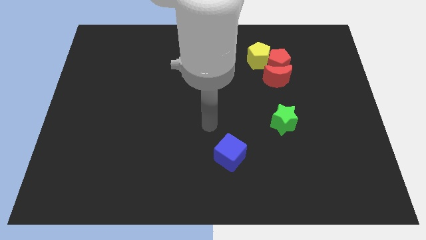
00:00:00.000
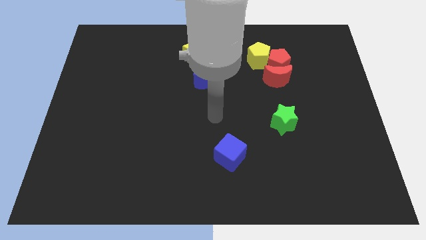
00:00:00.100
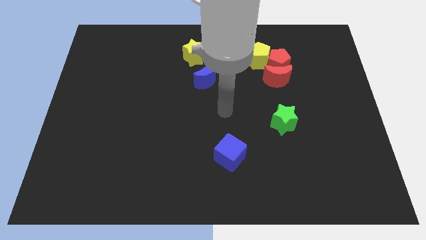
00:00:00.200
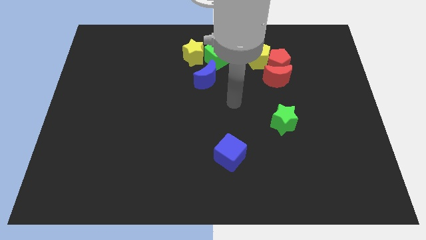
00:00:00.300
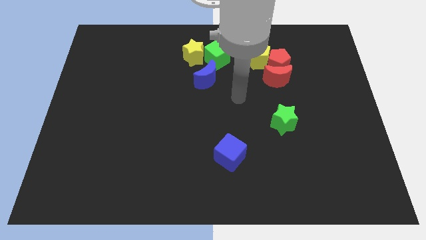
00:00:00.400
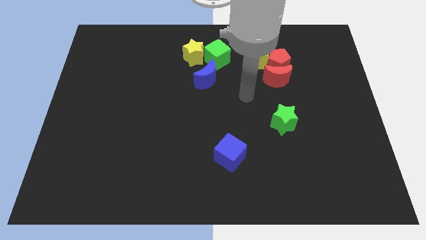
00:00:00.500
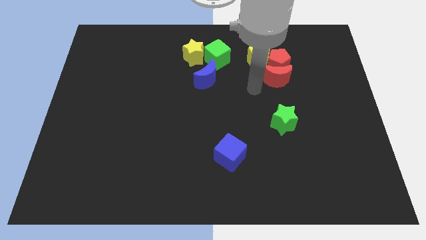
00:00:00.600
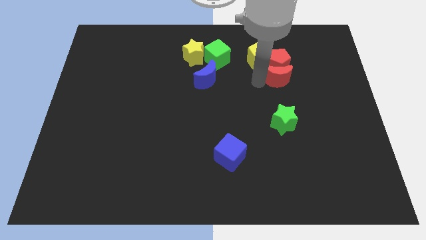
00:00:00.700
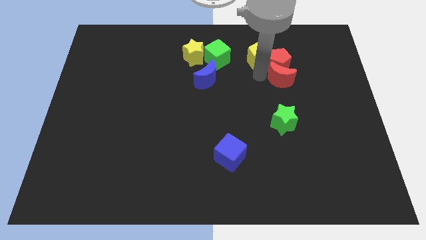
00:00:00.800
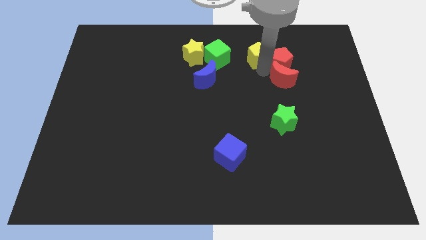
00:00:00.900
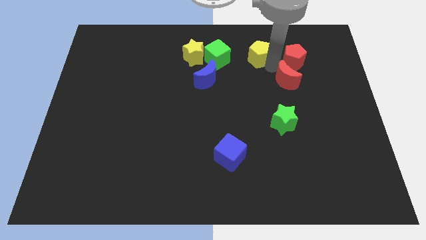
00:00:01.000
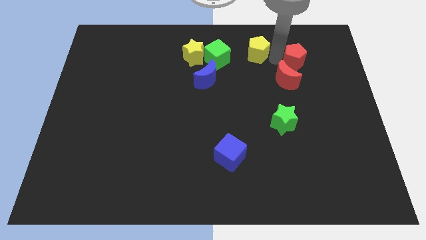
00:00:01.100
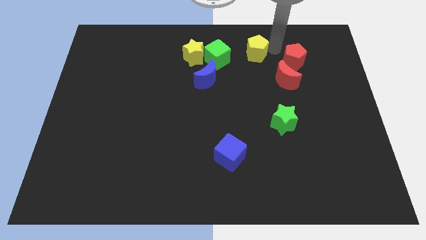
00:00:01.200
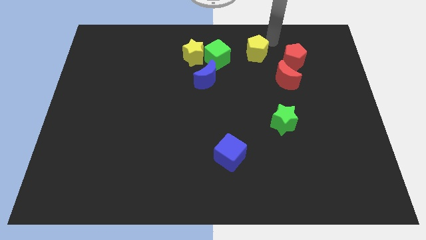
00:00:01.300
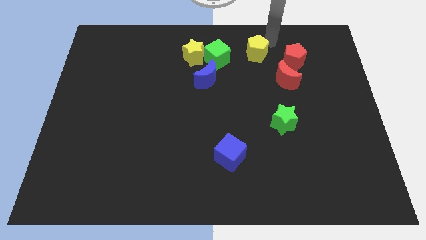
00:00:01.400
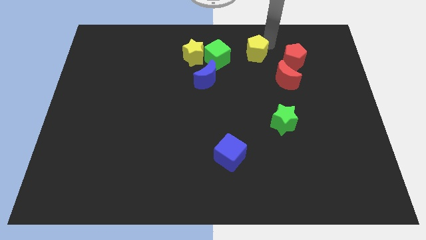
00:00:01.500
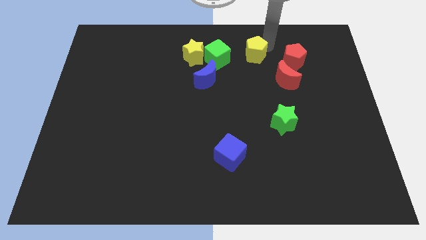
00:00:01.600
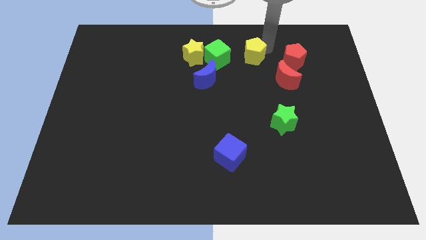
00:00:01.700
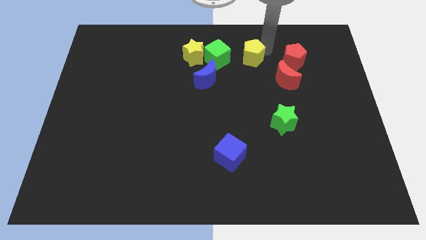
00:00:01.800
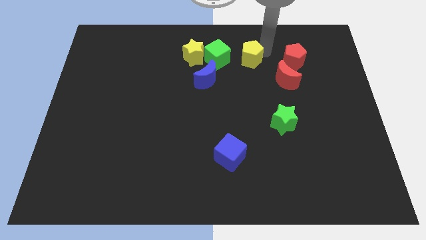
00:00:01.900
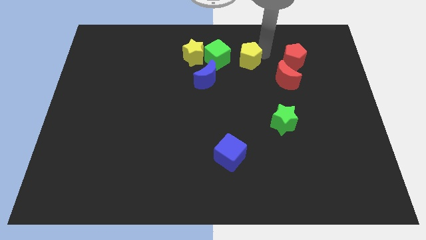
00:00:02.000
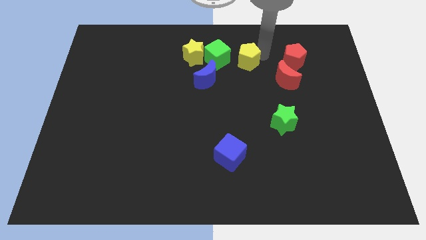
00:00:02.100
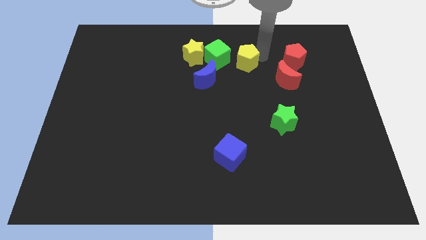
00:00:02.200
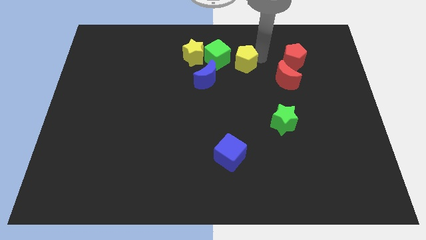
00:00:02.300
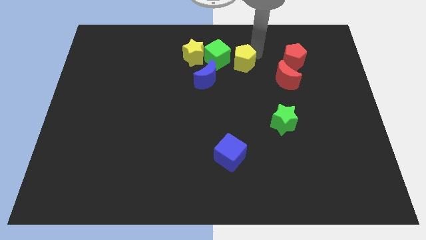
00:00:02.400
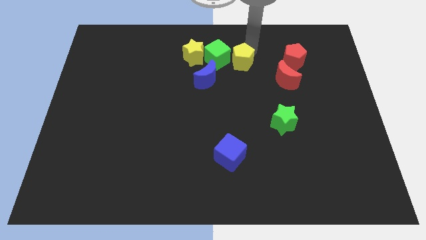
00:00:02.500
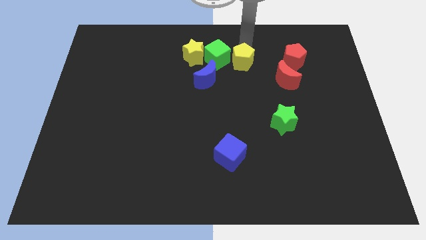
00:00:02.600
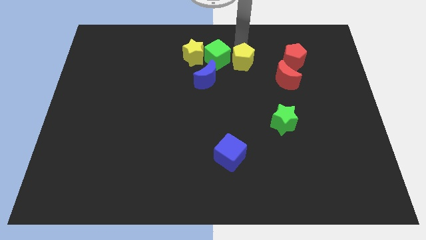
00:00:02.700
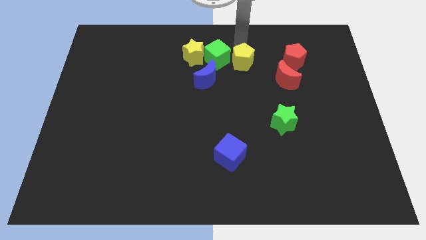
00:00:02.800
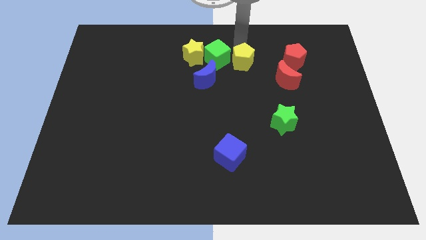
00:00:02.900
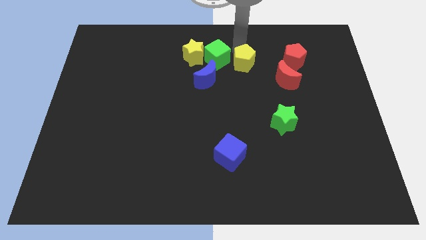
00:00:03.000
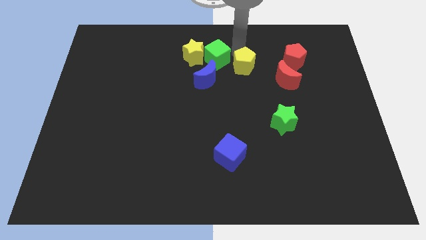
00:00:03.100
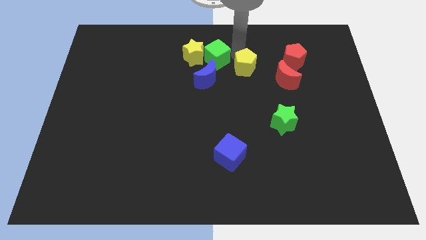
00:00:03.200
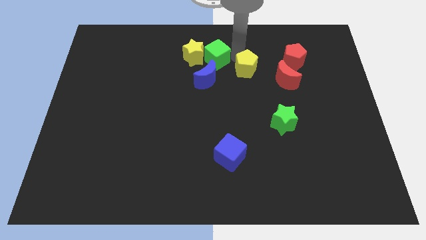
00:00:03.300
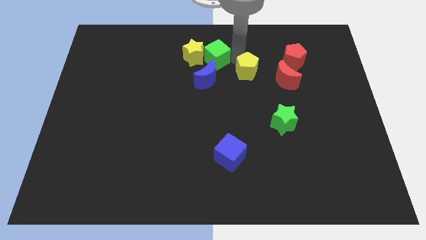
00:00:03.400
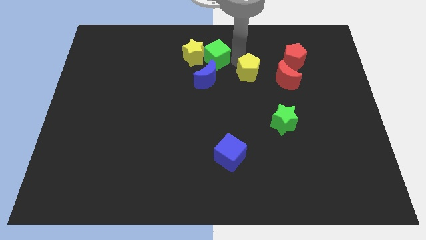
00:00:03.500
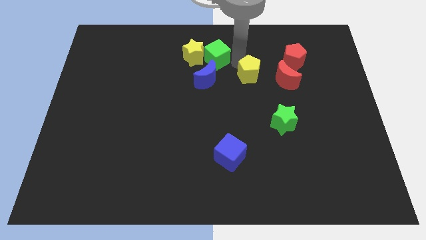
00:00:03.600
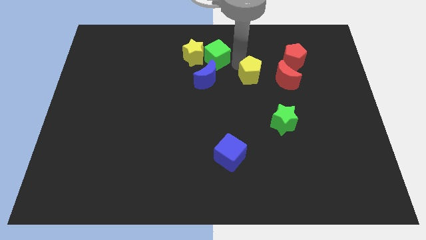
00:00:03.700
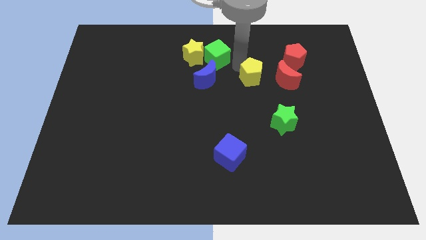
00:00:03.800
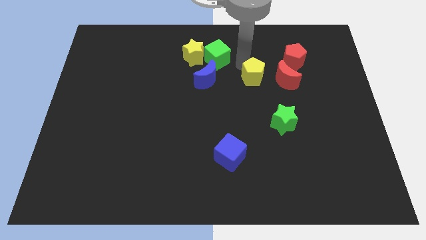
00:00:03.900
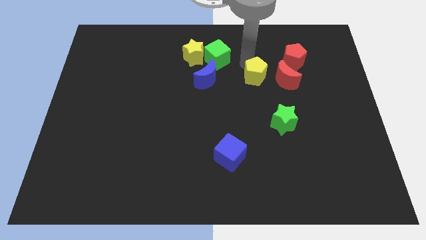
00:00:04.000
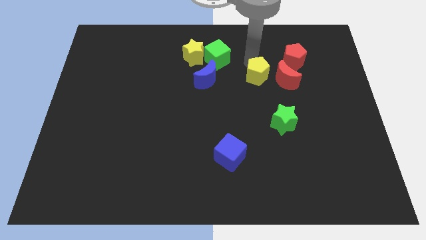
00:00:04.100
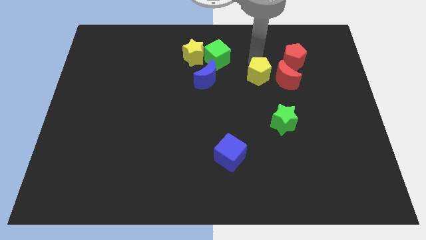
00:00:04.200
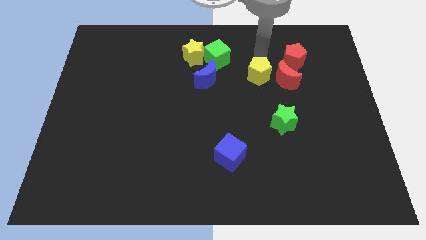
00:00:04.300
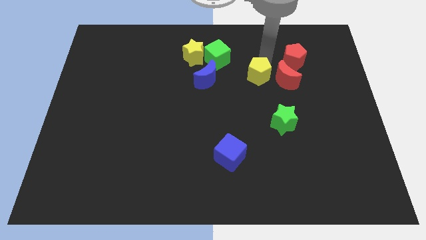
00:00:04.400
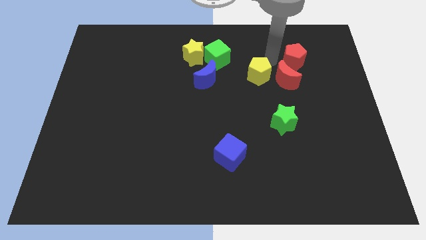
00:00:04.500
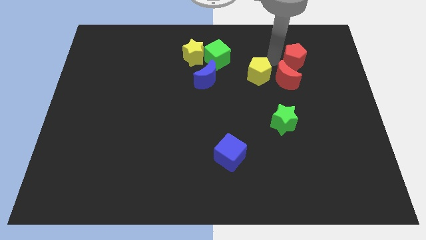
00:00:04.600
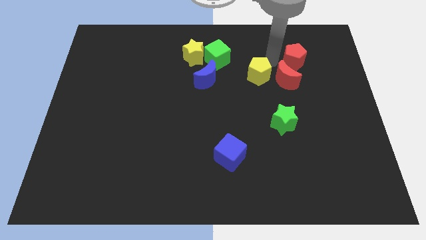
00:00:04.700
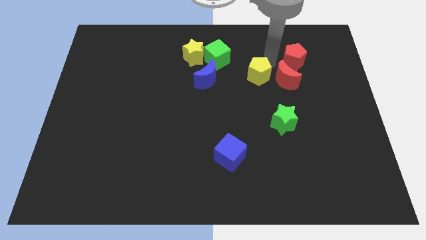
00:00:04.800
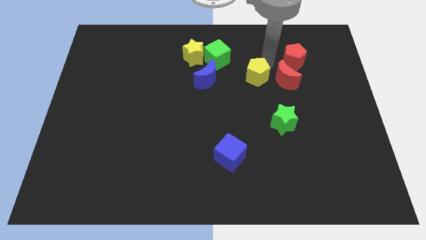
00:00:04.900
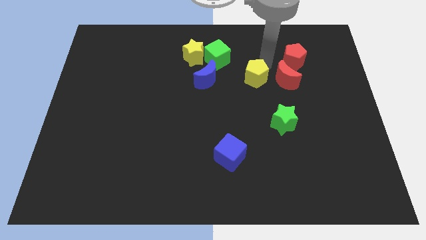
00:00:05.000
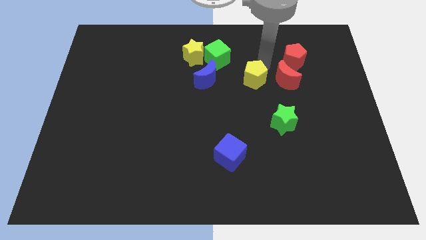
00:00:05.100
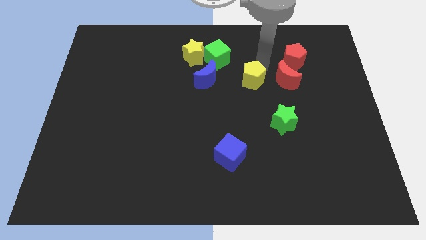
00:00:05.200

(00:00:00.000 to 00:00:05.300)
move the yellow pentagon downwards somewhat

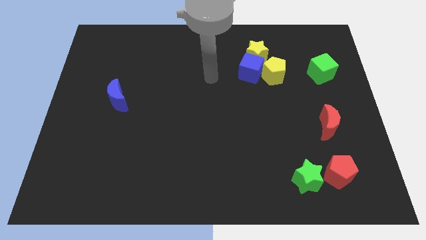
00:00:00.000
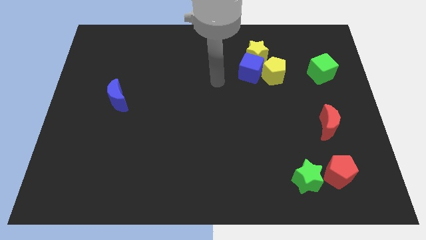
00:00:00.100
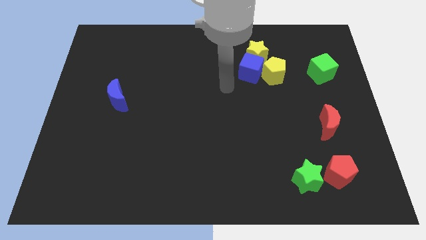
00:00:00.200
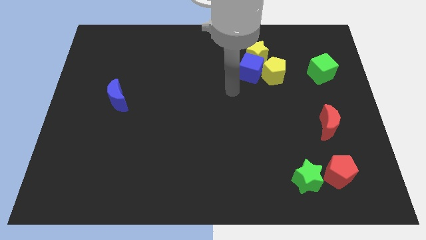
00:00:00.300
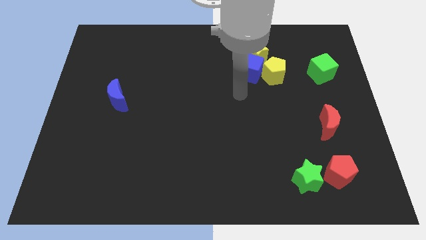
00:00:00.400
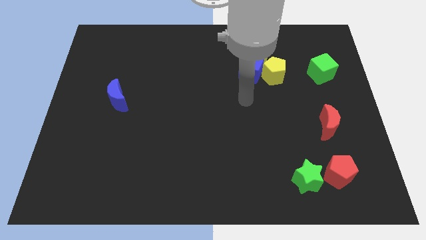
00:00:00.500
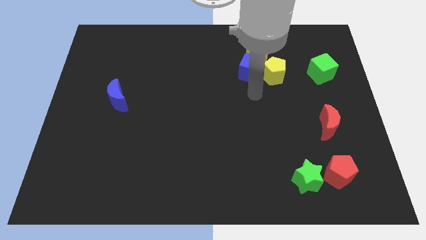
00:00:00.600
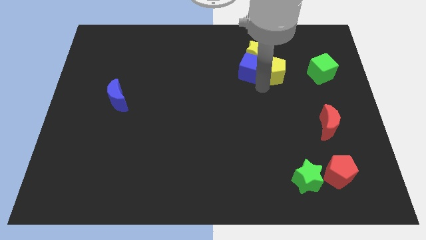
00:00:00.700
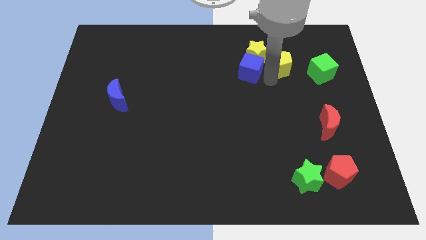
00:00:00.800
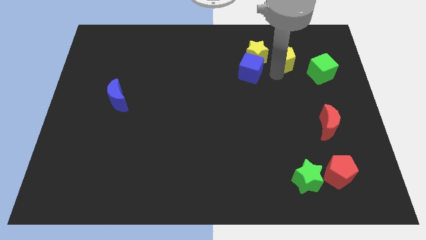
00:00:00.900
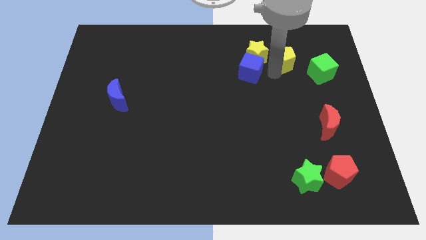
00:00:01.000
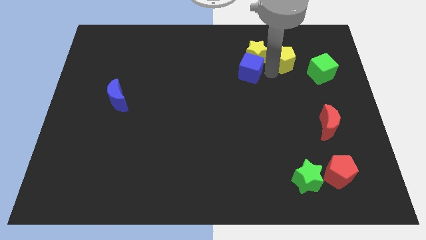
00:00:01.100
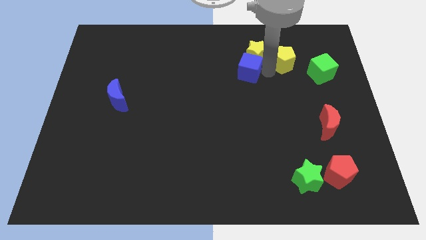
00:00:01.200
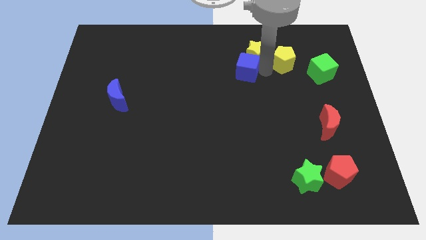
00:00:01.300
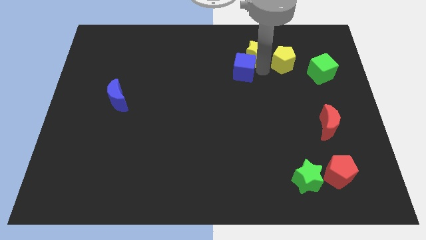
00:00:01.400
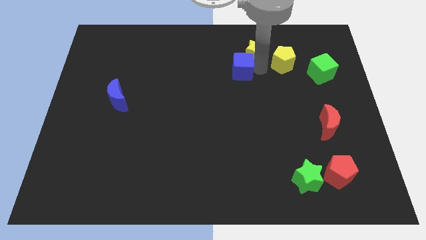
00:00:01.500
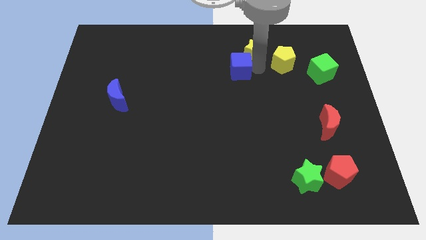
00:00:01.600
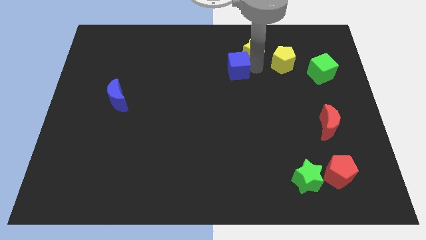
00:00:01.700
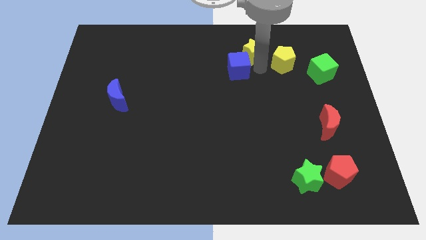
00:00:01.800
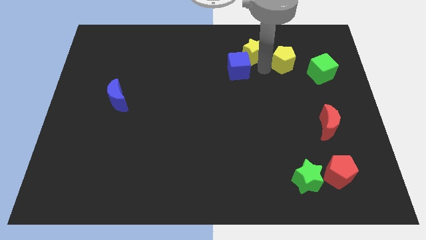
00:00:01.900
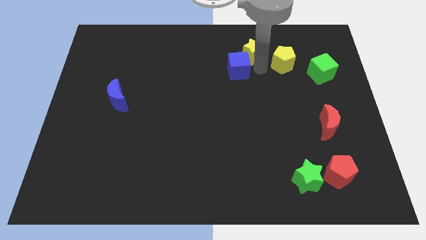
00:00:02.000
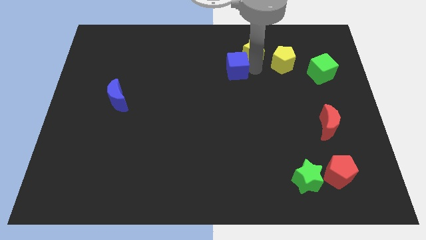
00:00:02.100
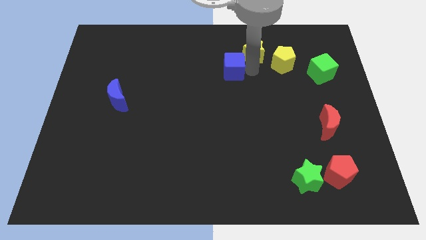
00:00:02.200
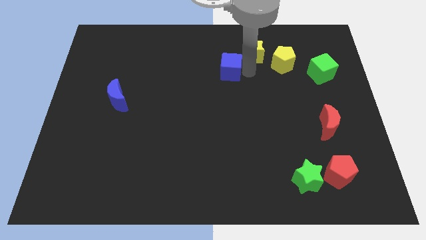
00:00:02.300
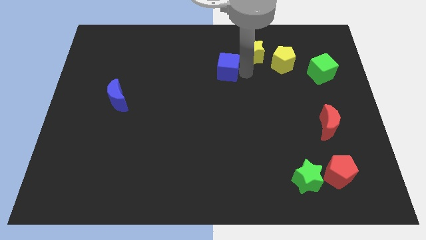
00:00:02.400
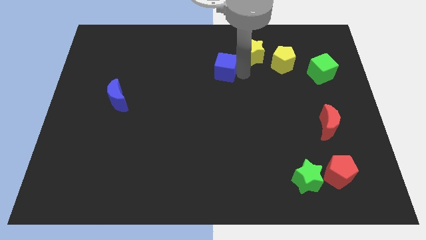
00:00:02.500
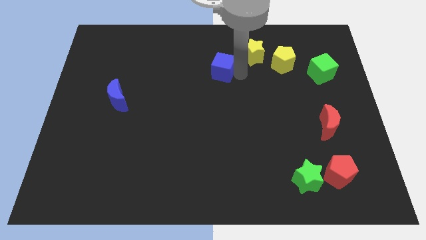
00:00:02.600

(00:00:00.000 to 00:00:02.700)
slightly move the blue cube left

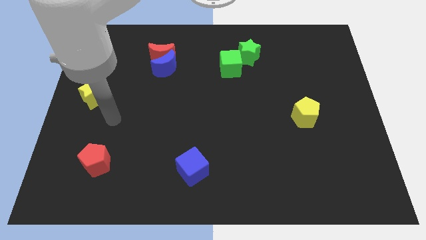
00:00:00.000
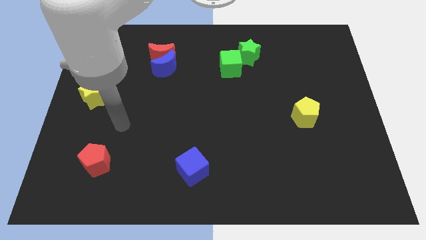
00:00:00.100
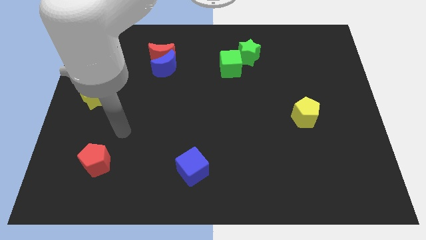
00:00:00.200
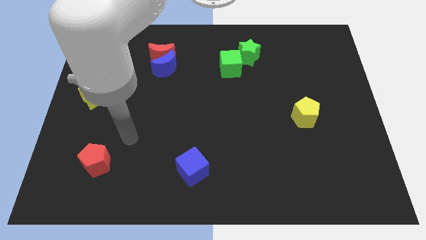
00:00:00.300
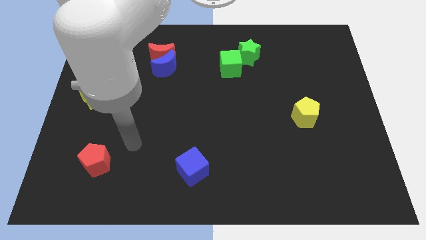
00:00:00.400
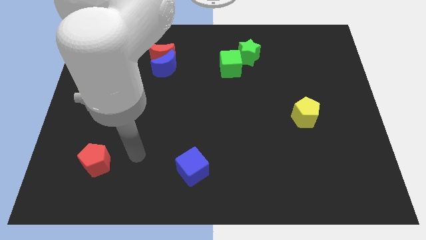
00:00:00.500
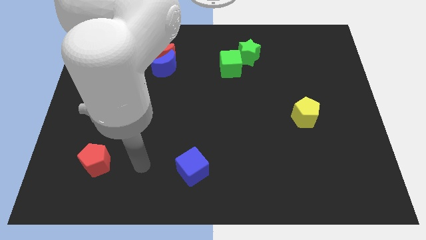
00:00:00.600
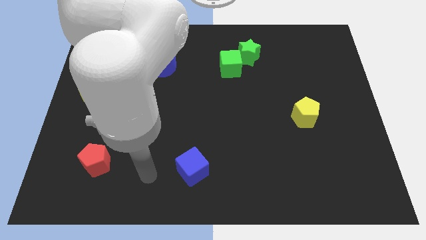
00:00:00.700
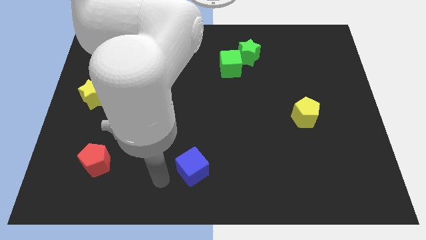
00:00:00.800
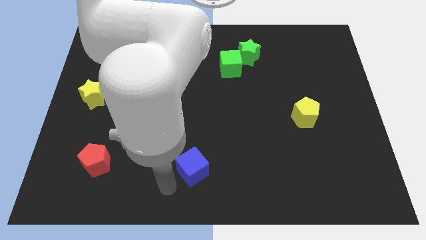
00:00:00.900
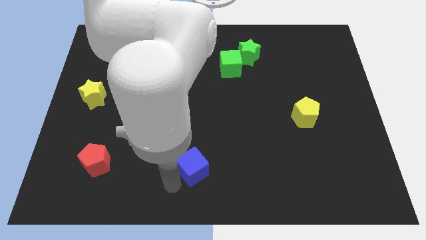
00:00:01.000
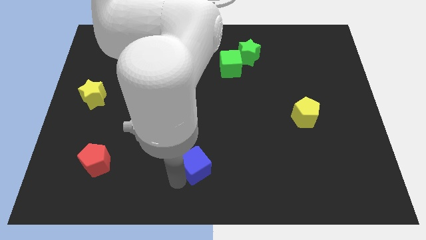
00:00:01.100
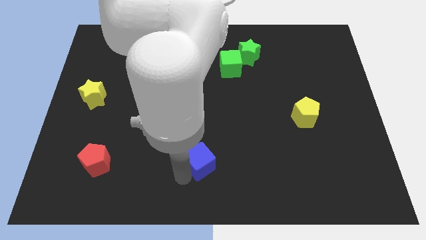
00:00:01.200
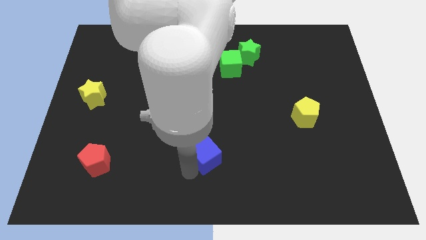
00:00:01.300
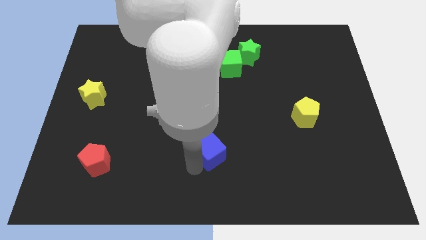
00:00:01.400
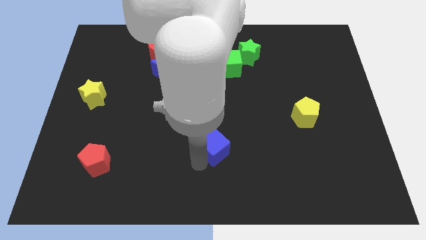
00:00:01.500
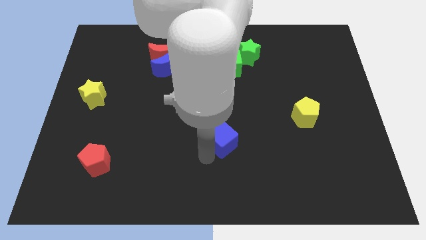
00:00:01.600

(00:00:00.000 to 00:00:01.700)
slightly move the blue cube diagonally upwards and to the right
